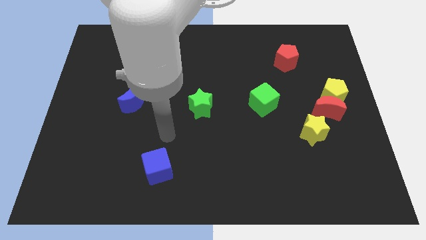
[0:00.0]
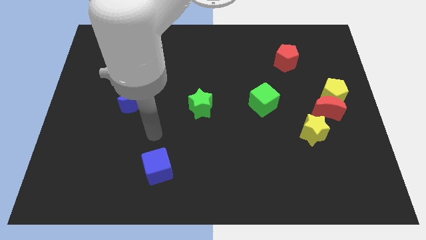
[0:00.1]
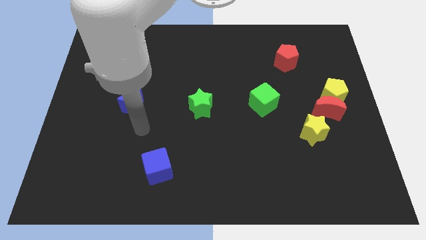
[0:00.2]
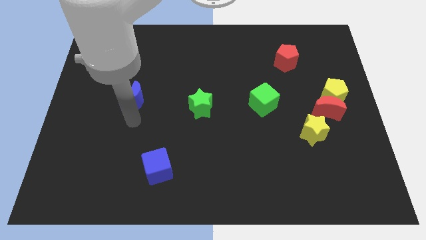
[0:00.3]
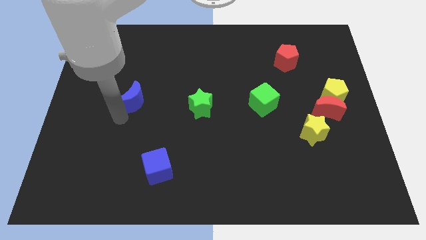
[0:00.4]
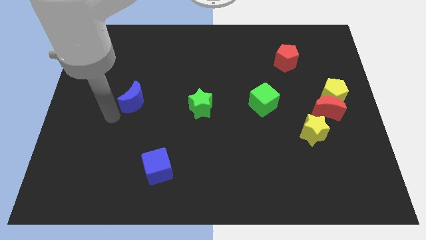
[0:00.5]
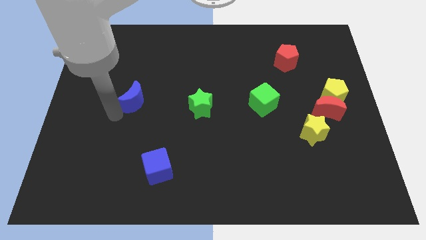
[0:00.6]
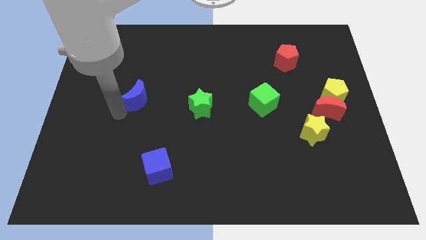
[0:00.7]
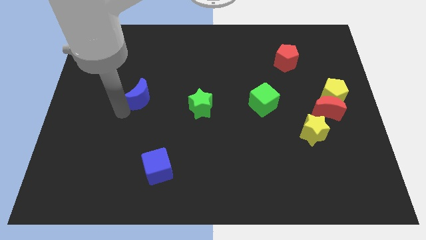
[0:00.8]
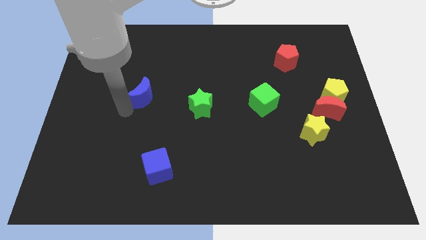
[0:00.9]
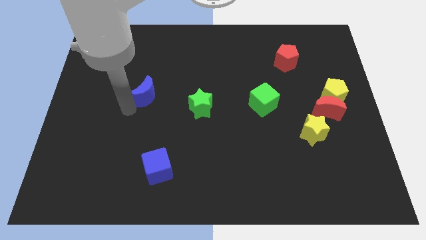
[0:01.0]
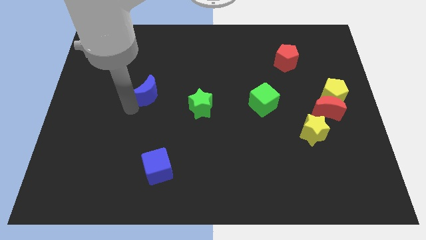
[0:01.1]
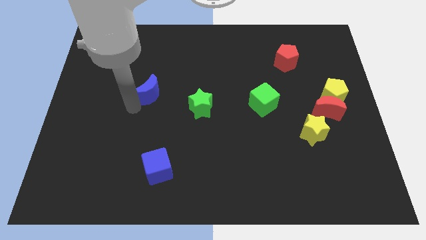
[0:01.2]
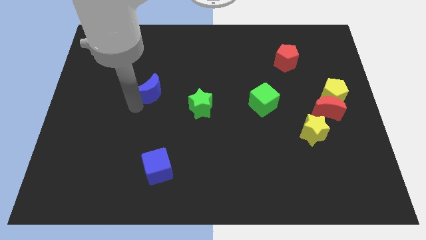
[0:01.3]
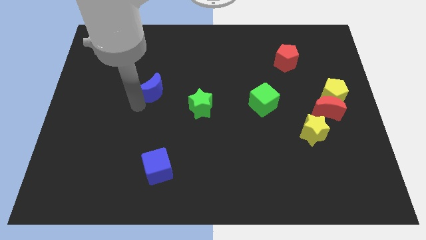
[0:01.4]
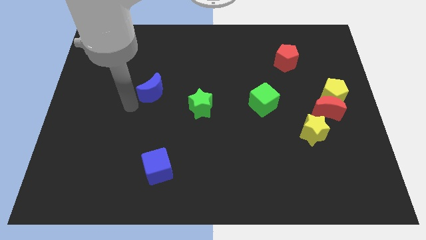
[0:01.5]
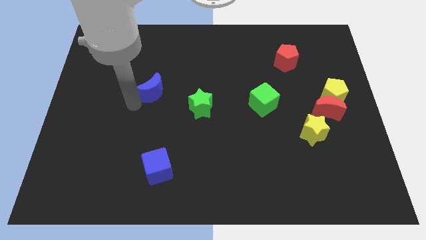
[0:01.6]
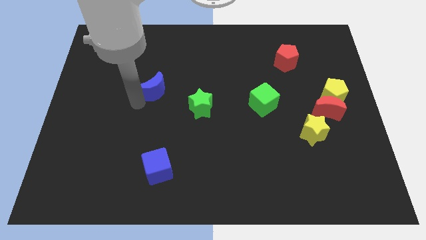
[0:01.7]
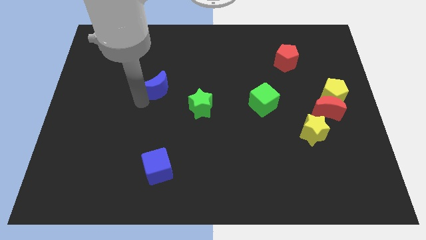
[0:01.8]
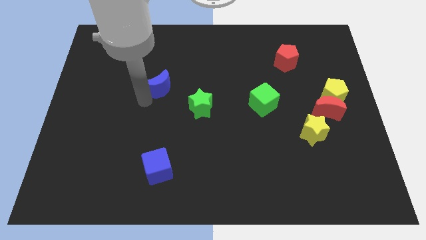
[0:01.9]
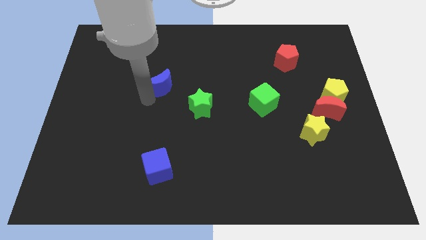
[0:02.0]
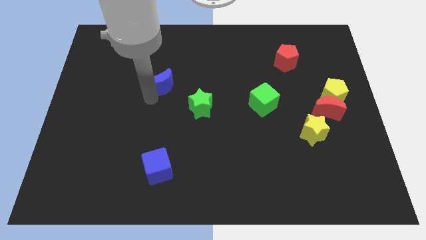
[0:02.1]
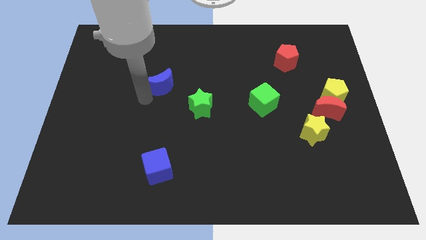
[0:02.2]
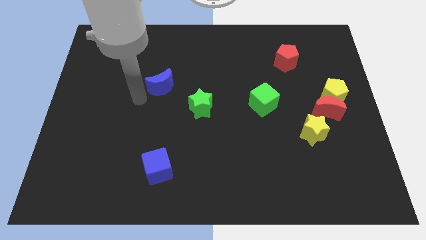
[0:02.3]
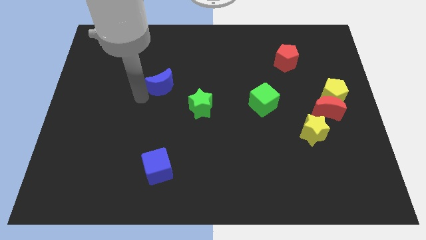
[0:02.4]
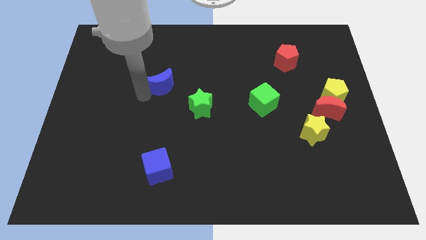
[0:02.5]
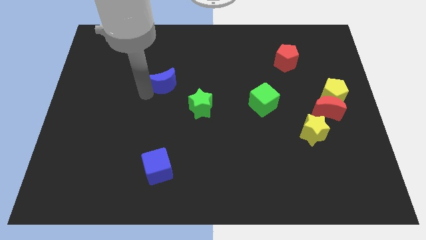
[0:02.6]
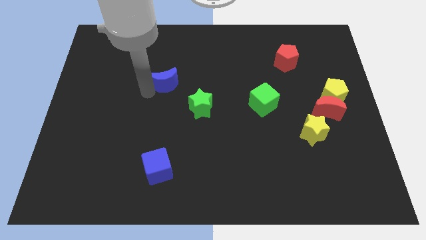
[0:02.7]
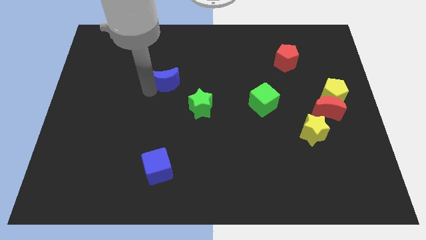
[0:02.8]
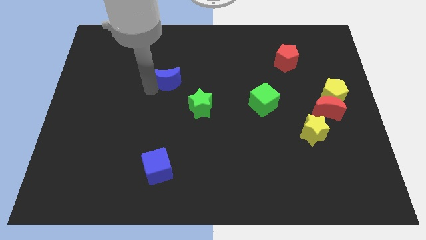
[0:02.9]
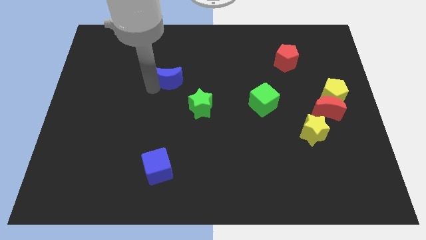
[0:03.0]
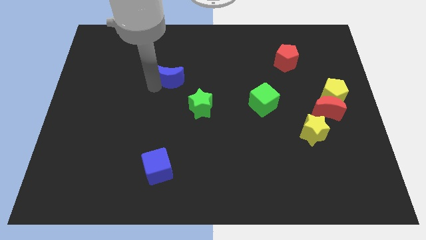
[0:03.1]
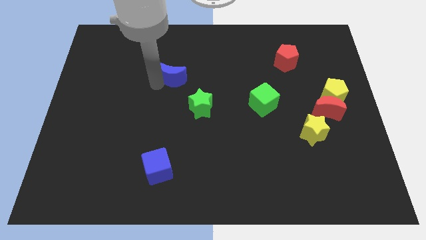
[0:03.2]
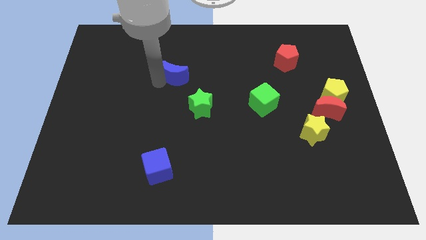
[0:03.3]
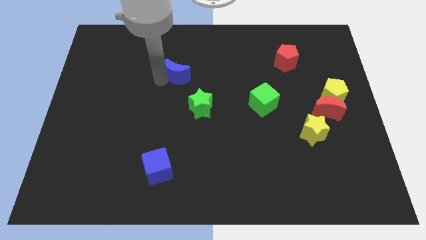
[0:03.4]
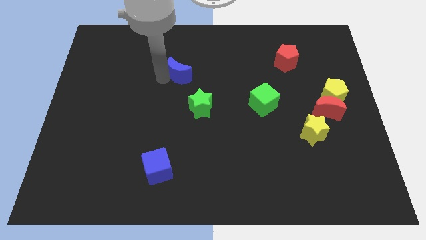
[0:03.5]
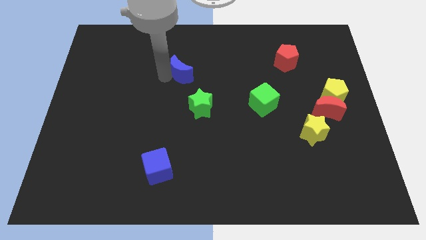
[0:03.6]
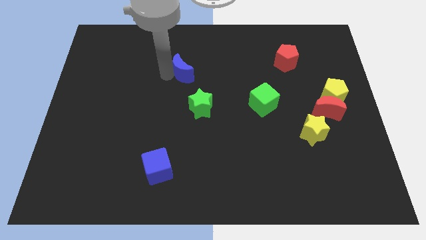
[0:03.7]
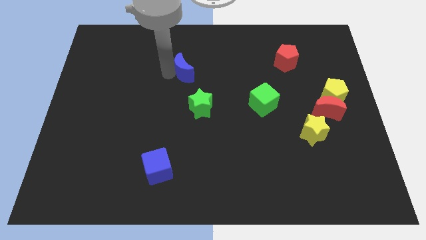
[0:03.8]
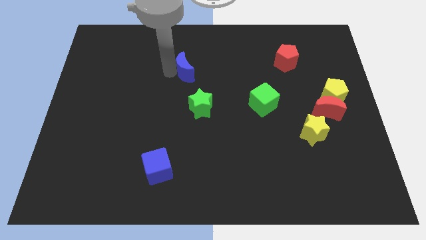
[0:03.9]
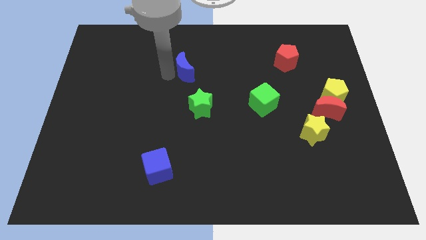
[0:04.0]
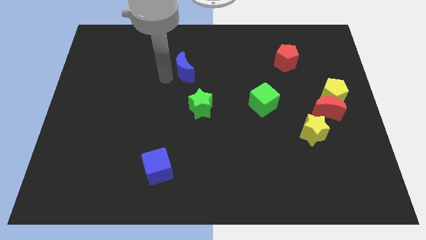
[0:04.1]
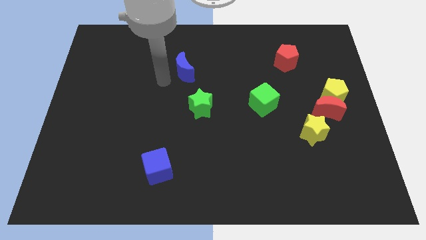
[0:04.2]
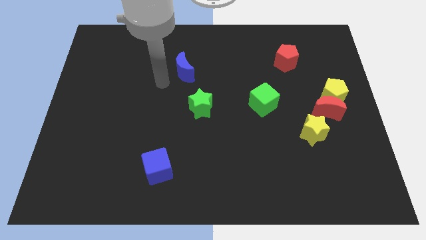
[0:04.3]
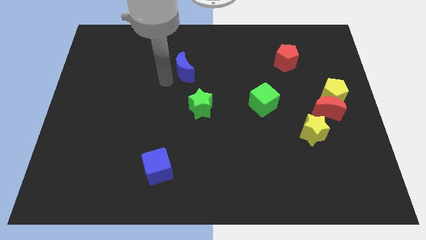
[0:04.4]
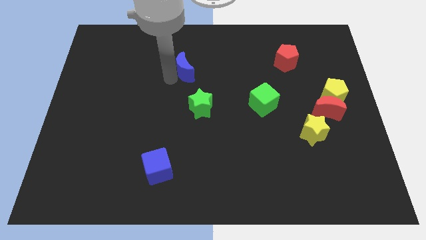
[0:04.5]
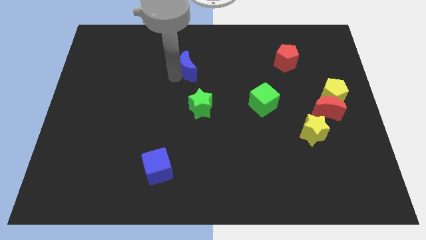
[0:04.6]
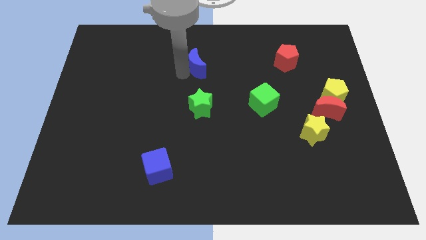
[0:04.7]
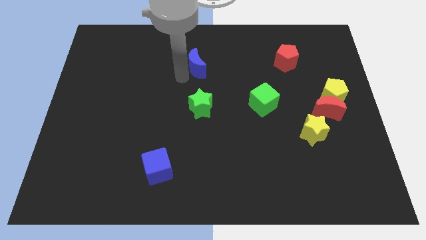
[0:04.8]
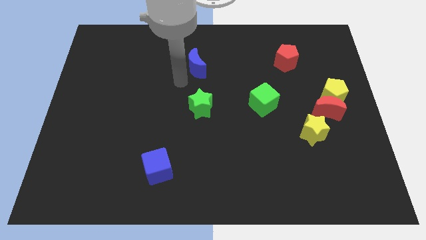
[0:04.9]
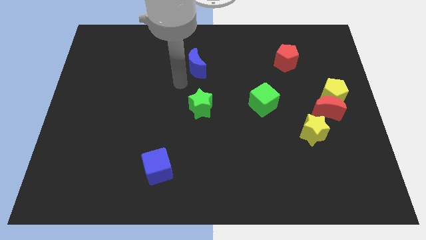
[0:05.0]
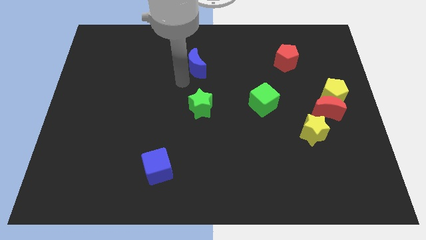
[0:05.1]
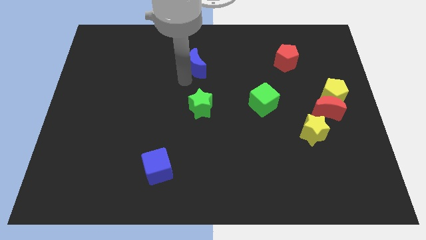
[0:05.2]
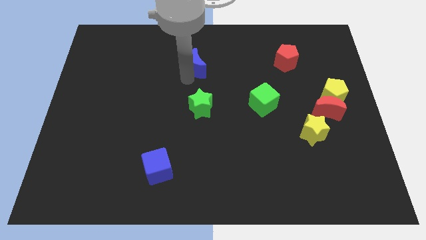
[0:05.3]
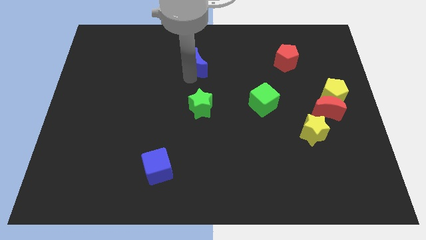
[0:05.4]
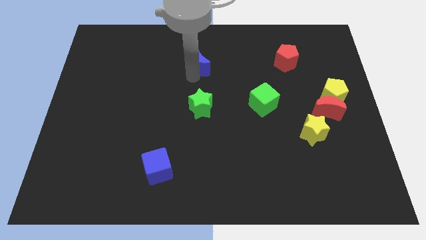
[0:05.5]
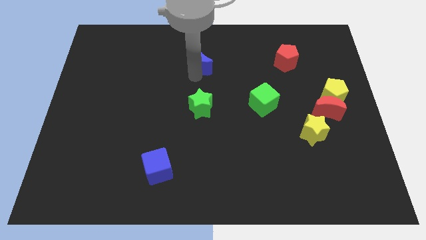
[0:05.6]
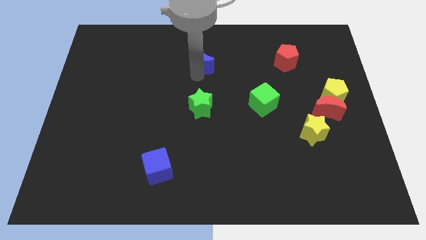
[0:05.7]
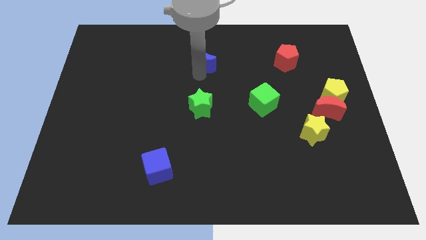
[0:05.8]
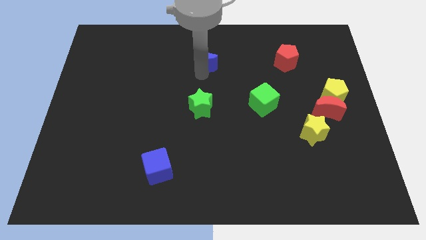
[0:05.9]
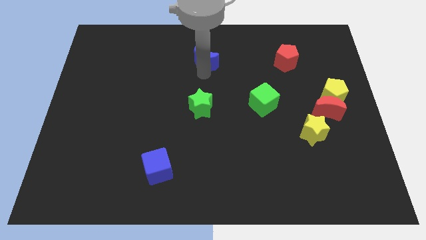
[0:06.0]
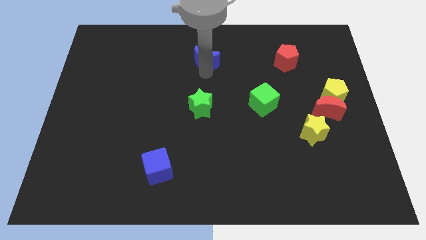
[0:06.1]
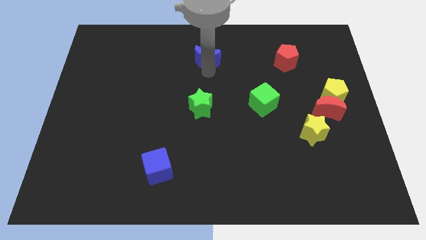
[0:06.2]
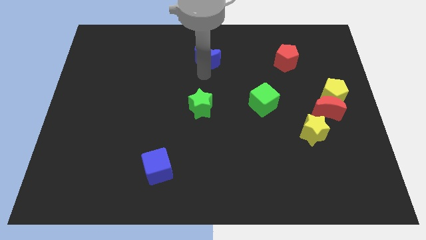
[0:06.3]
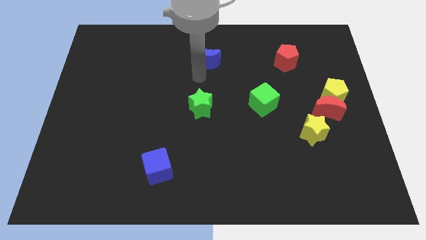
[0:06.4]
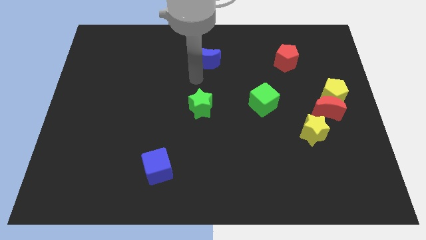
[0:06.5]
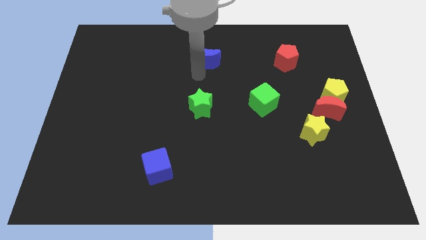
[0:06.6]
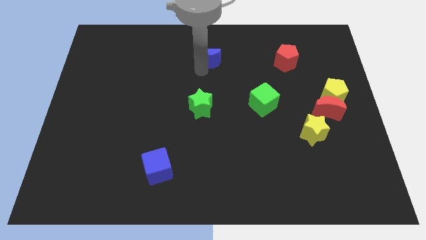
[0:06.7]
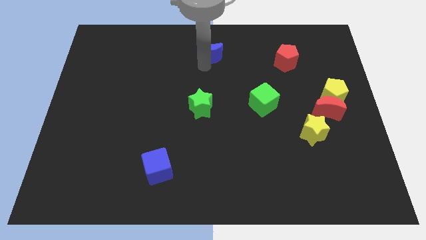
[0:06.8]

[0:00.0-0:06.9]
push the blue moon to the towards your base
